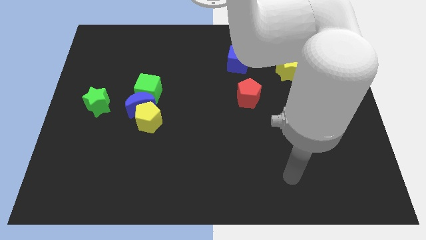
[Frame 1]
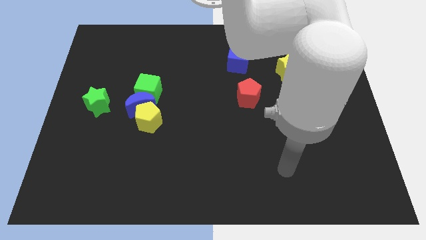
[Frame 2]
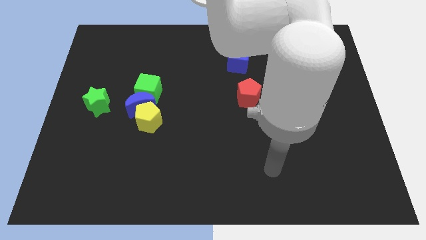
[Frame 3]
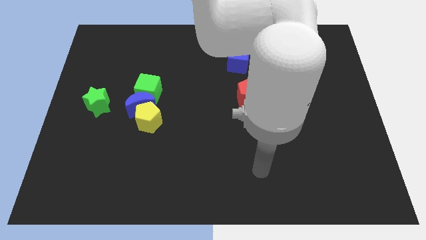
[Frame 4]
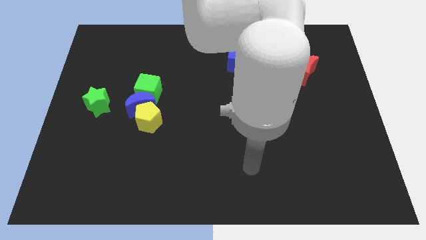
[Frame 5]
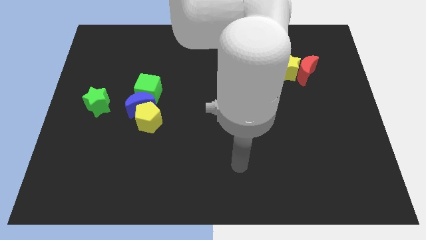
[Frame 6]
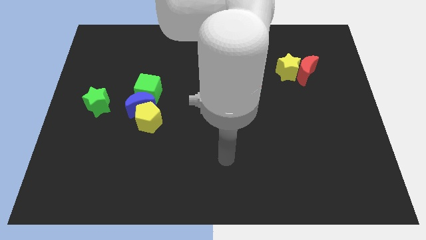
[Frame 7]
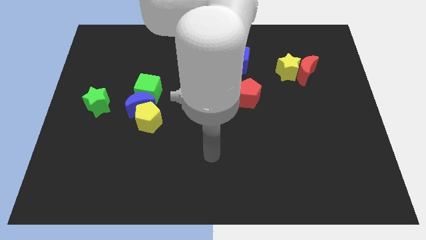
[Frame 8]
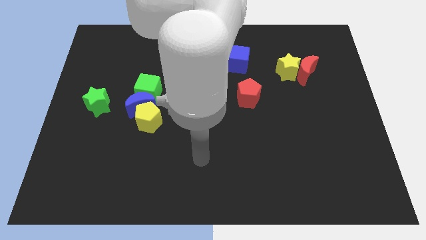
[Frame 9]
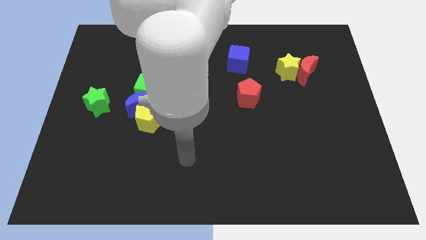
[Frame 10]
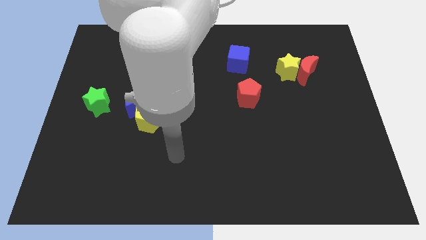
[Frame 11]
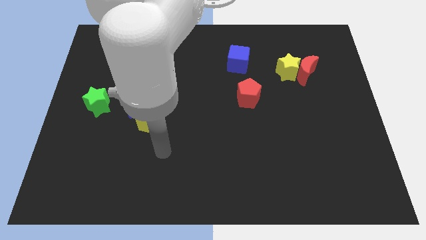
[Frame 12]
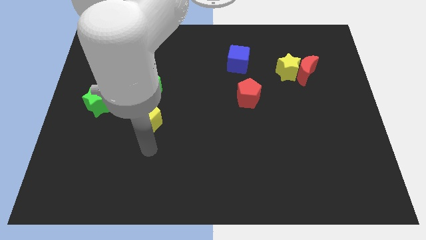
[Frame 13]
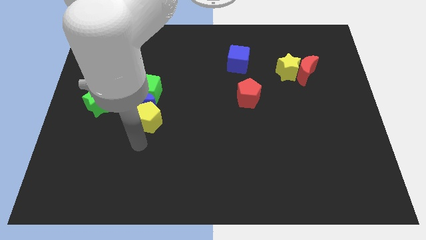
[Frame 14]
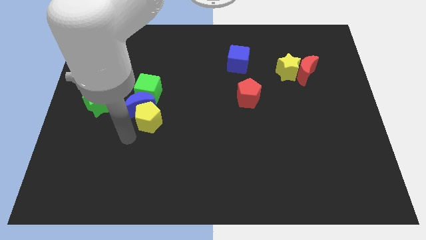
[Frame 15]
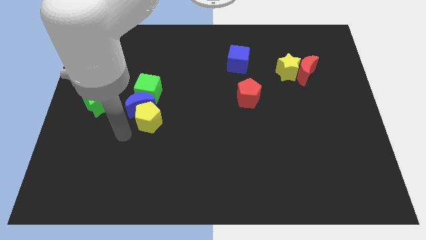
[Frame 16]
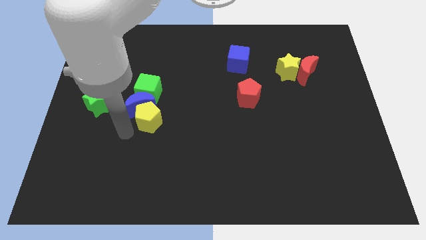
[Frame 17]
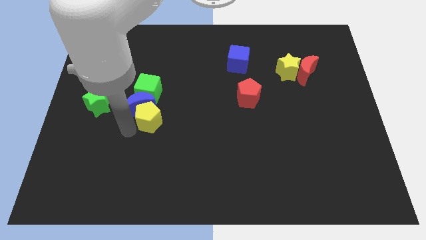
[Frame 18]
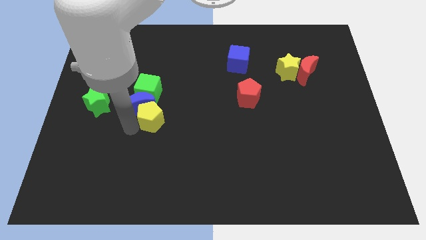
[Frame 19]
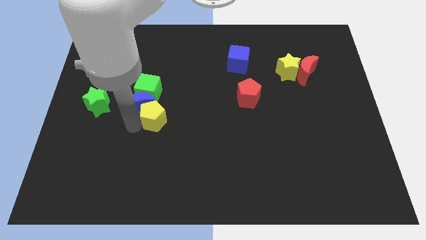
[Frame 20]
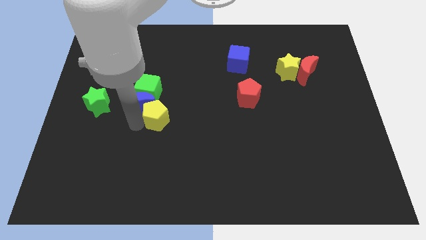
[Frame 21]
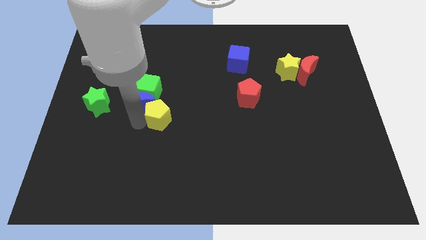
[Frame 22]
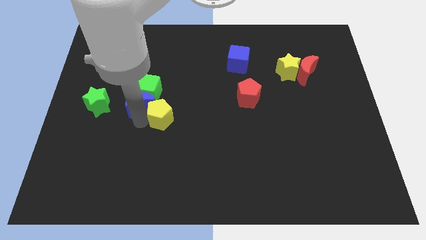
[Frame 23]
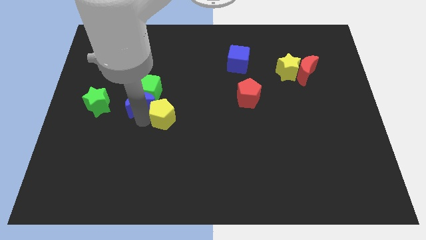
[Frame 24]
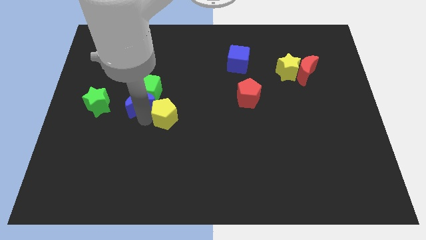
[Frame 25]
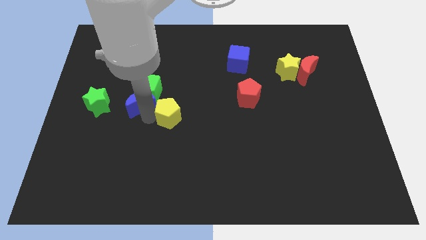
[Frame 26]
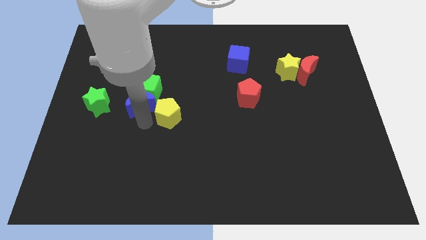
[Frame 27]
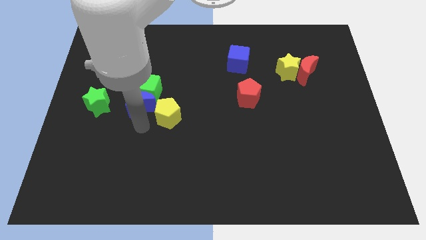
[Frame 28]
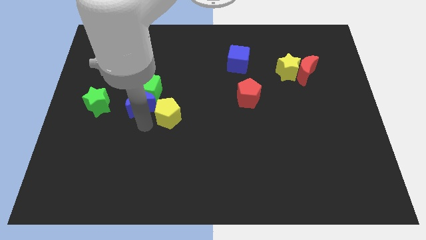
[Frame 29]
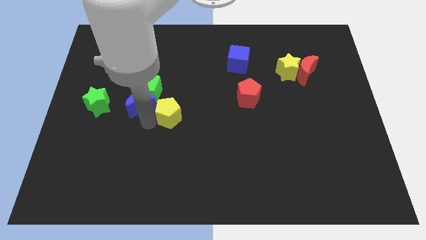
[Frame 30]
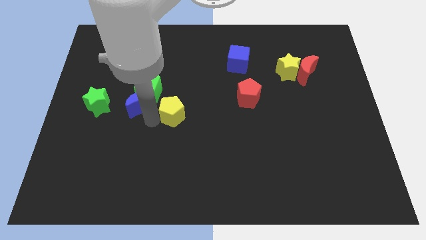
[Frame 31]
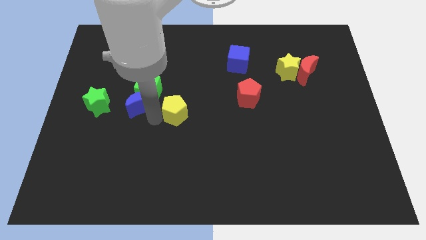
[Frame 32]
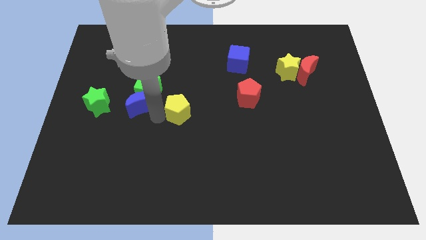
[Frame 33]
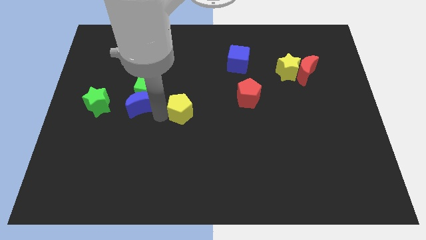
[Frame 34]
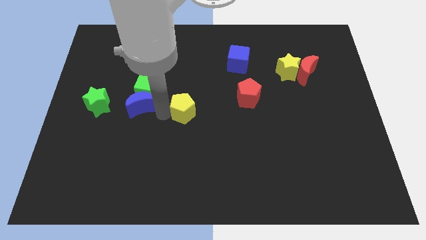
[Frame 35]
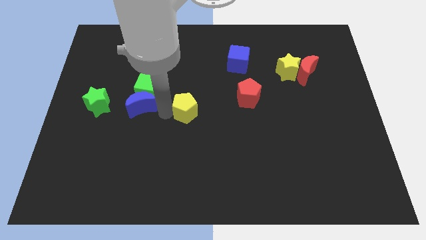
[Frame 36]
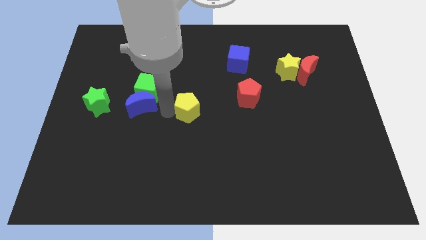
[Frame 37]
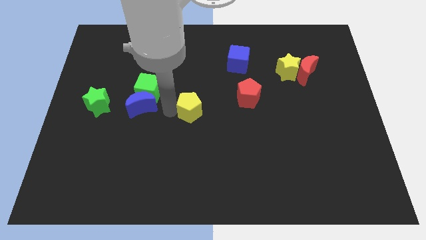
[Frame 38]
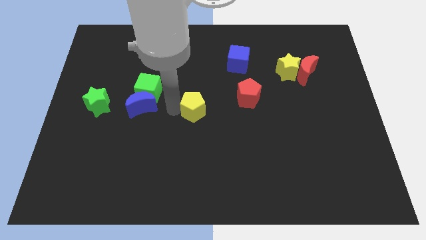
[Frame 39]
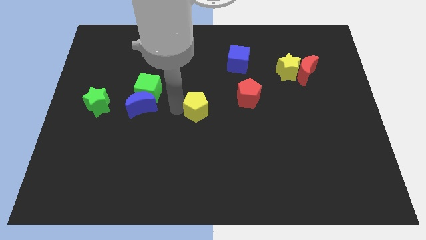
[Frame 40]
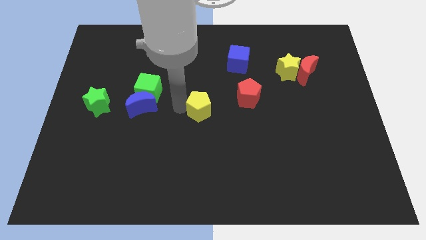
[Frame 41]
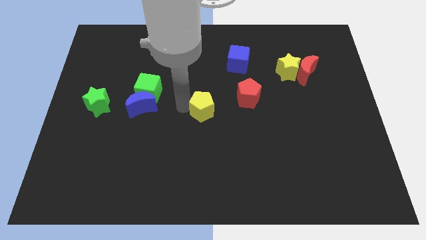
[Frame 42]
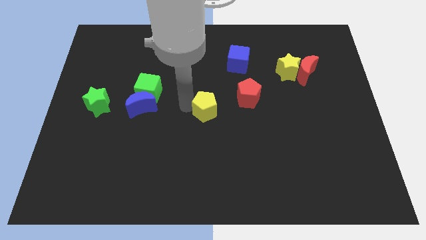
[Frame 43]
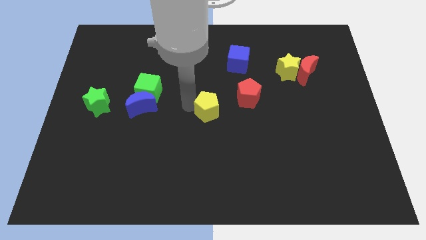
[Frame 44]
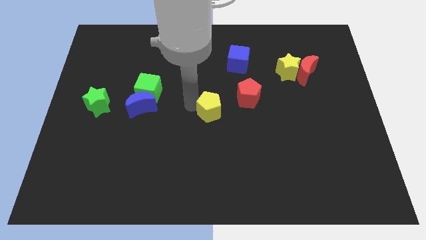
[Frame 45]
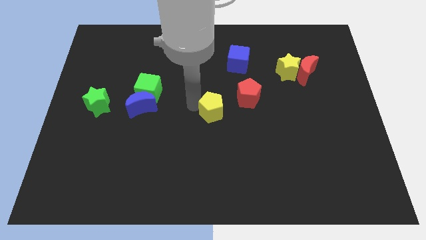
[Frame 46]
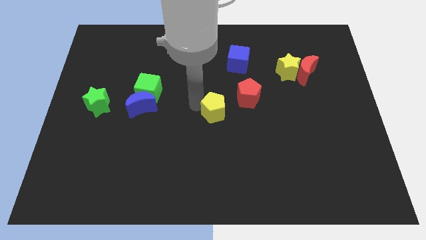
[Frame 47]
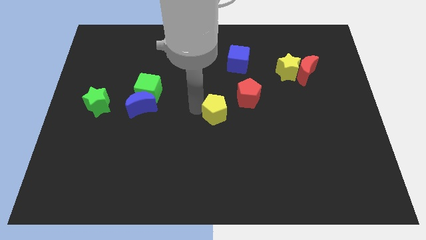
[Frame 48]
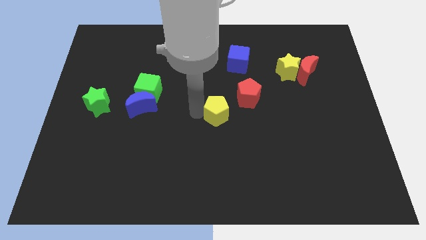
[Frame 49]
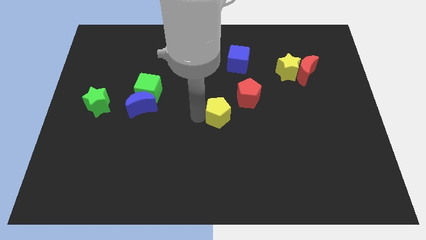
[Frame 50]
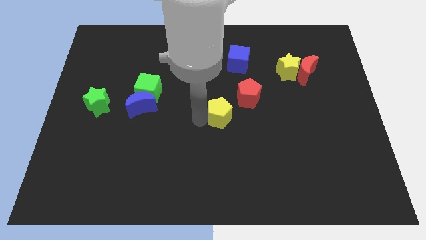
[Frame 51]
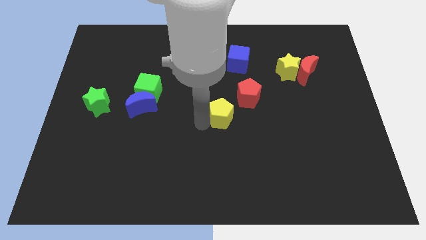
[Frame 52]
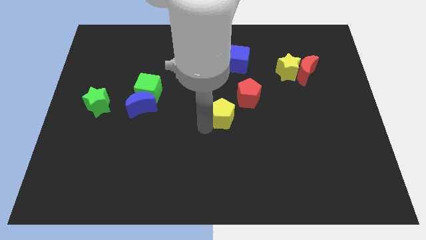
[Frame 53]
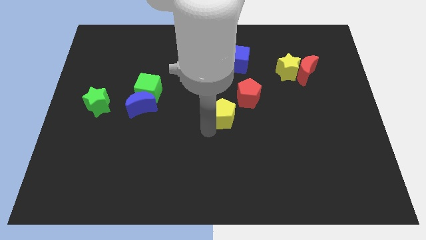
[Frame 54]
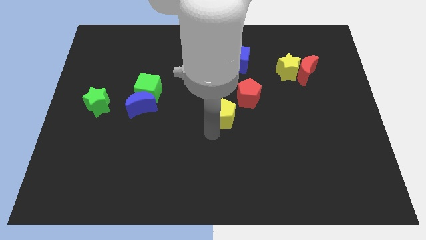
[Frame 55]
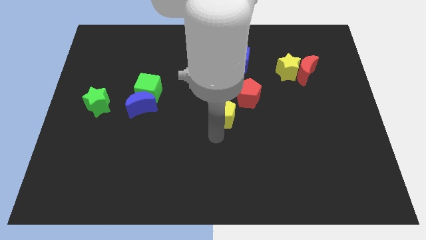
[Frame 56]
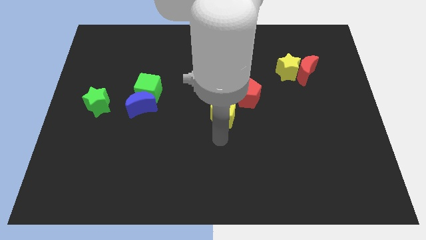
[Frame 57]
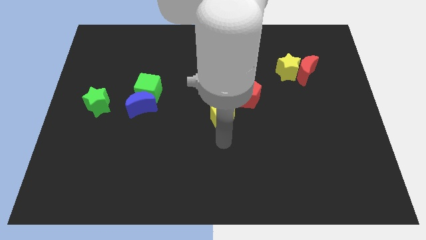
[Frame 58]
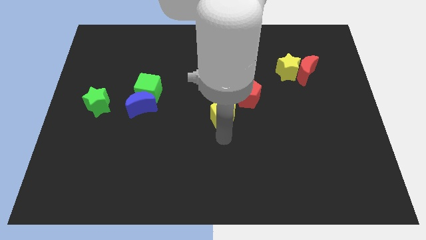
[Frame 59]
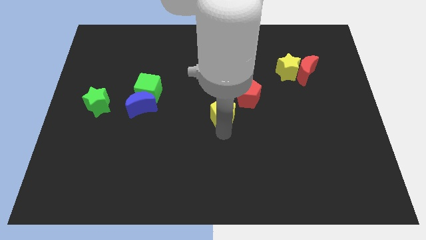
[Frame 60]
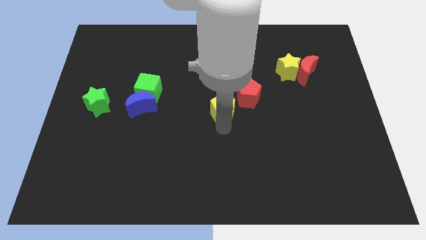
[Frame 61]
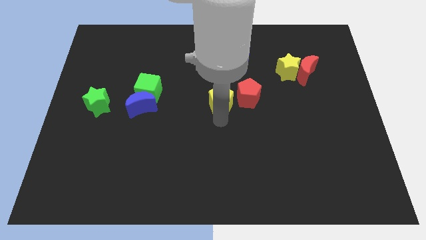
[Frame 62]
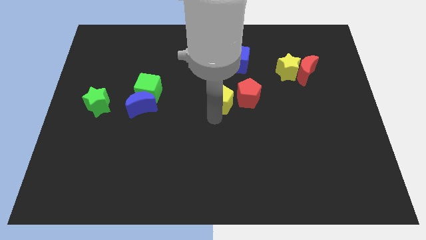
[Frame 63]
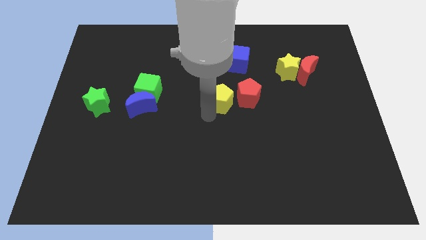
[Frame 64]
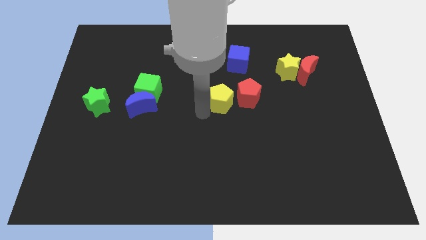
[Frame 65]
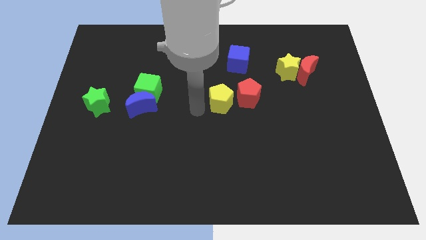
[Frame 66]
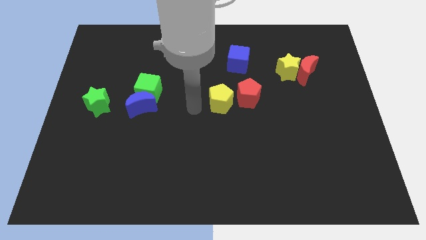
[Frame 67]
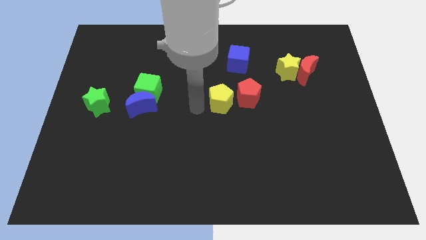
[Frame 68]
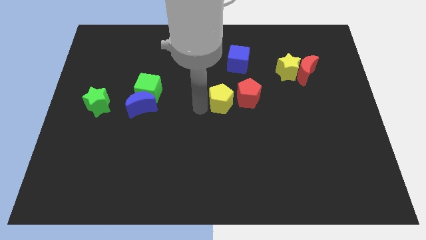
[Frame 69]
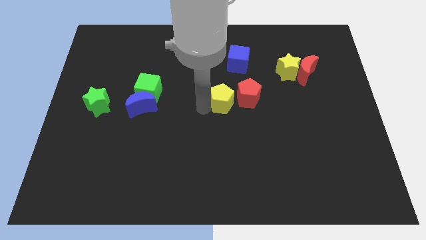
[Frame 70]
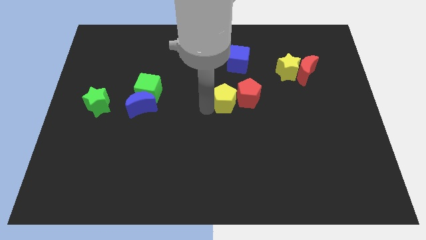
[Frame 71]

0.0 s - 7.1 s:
slide the yellow pentagon to the red pentagon

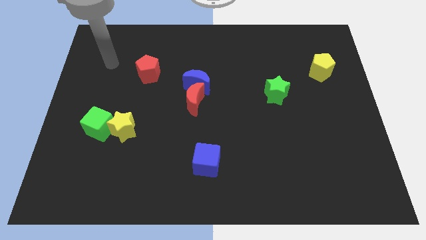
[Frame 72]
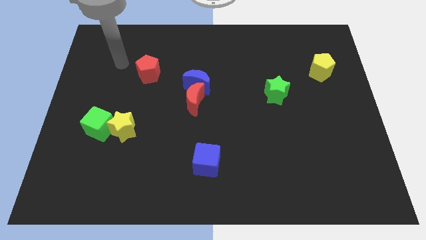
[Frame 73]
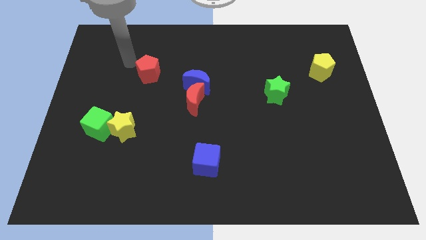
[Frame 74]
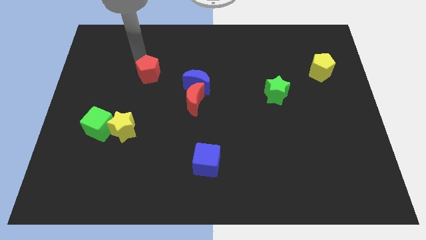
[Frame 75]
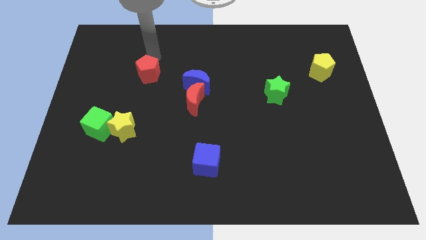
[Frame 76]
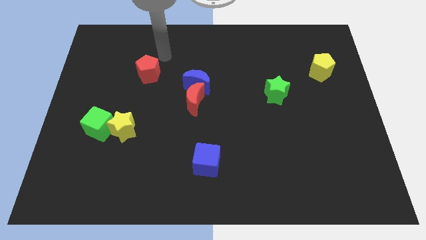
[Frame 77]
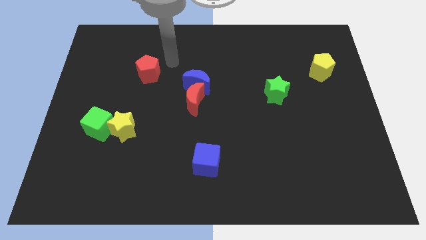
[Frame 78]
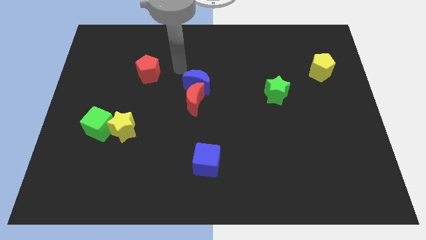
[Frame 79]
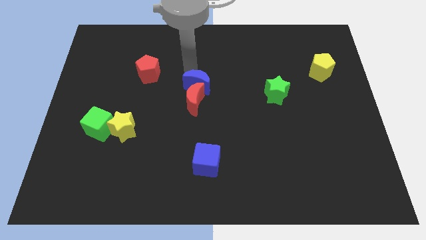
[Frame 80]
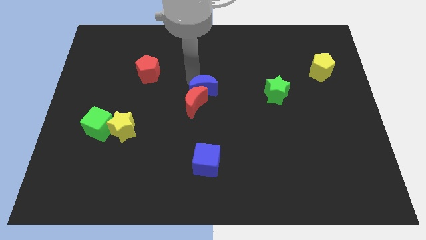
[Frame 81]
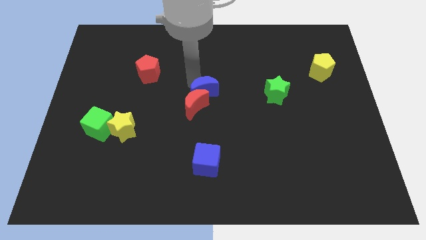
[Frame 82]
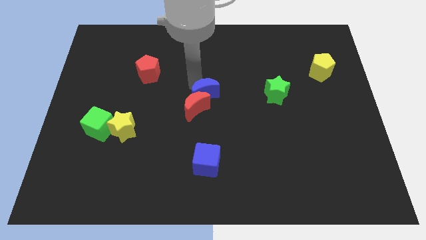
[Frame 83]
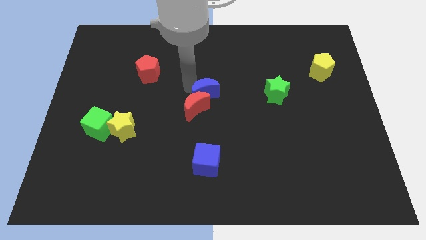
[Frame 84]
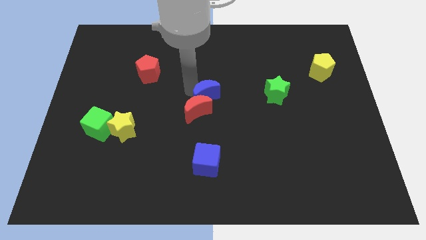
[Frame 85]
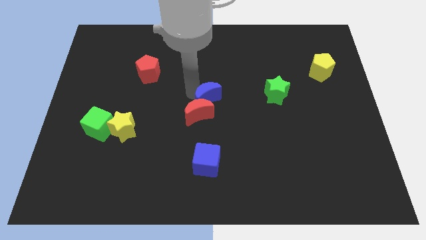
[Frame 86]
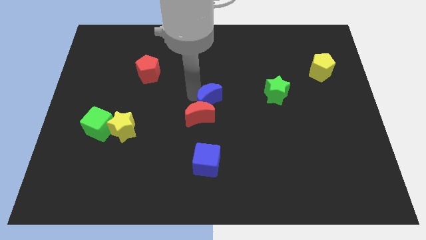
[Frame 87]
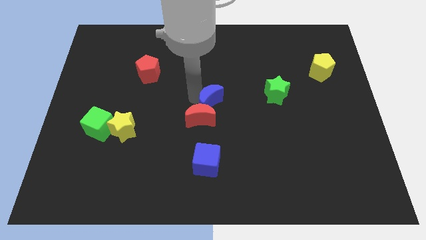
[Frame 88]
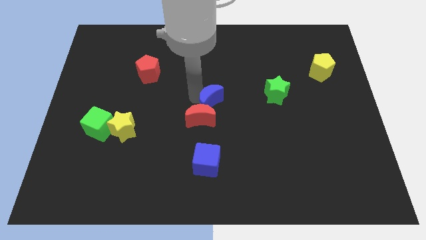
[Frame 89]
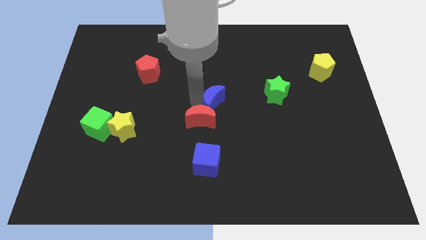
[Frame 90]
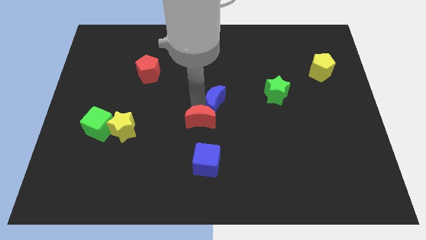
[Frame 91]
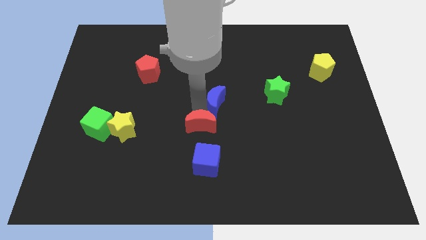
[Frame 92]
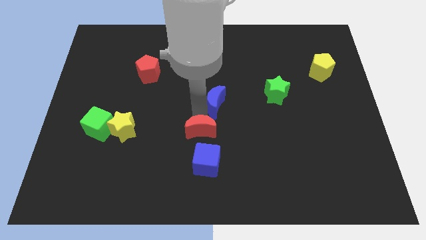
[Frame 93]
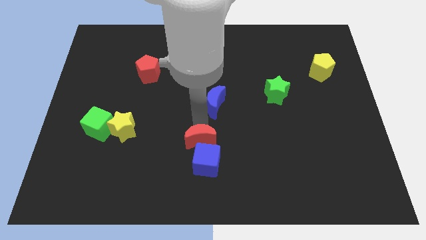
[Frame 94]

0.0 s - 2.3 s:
push the red moon towards the blue cube
